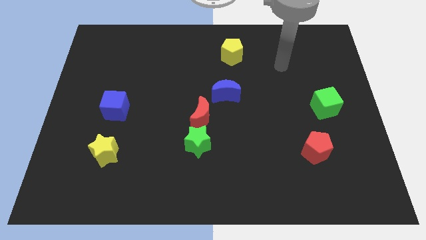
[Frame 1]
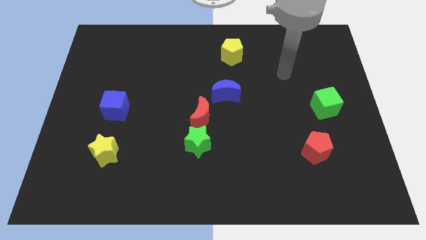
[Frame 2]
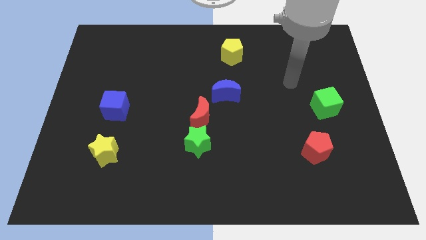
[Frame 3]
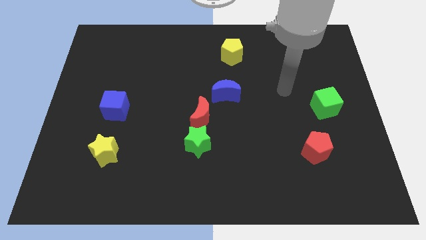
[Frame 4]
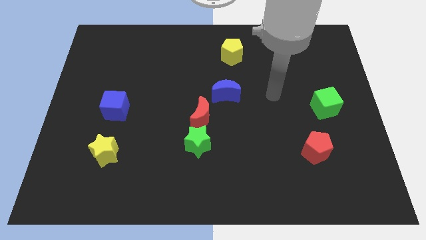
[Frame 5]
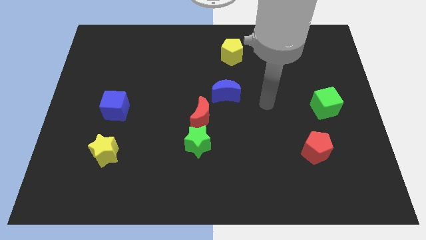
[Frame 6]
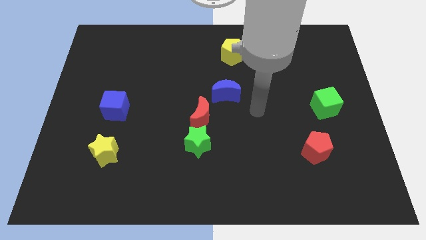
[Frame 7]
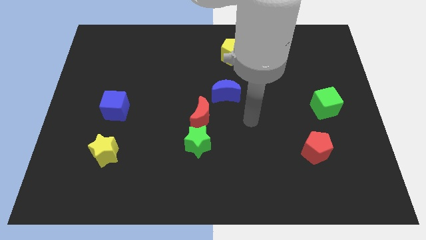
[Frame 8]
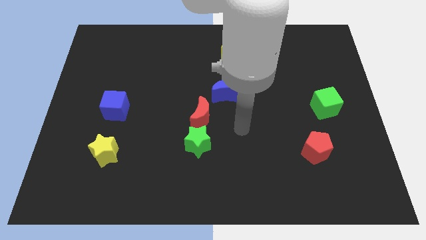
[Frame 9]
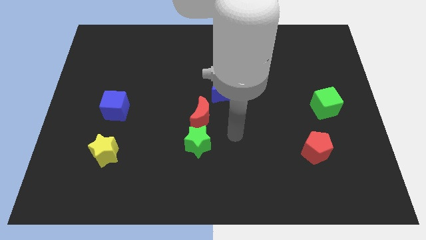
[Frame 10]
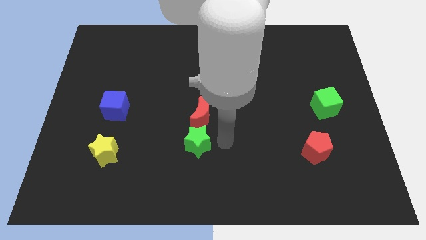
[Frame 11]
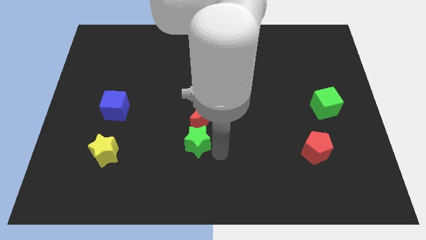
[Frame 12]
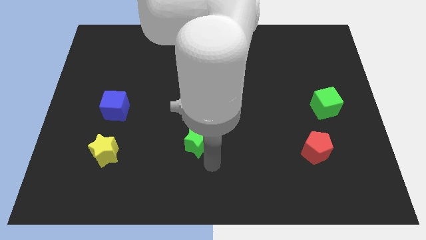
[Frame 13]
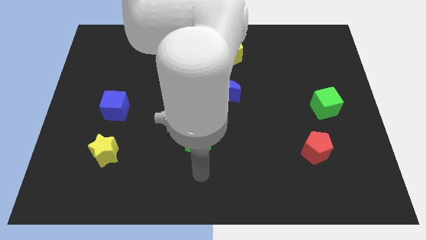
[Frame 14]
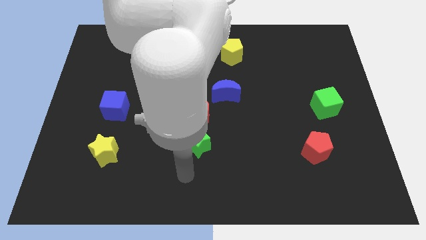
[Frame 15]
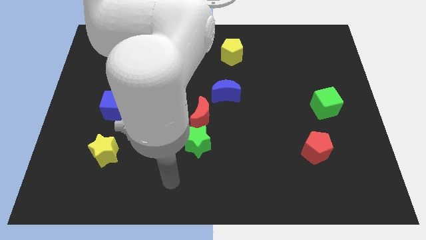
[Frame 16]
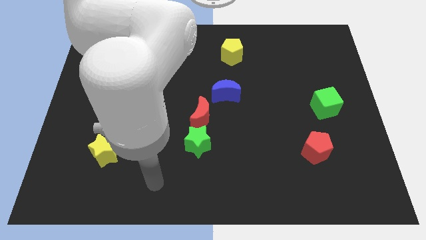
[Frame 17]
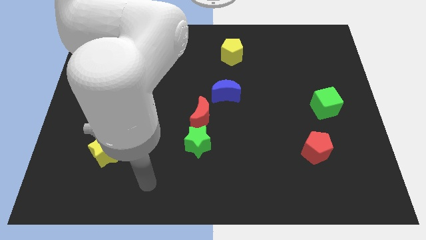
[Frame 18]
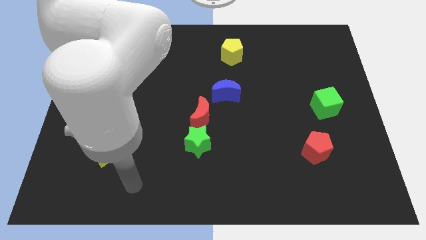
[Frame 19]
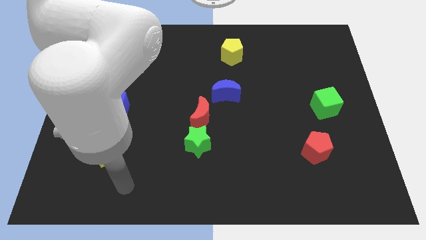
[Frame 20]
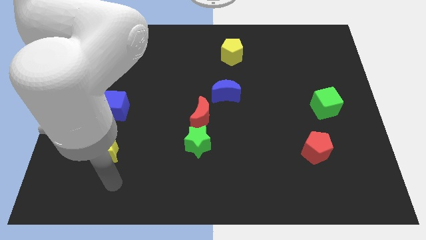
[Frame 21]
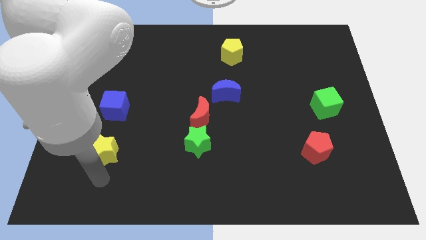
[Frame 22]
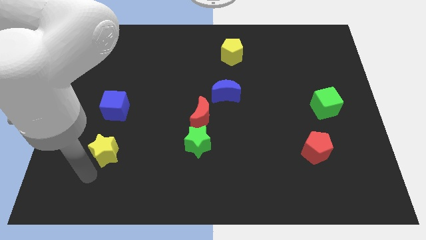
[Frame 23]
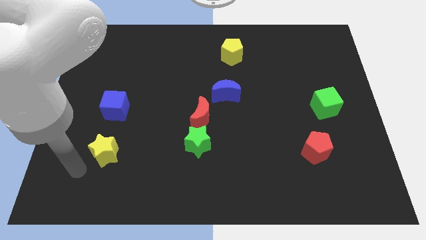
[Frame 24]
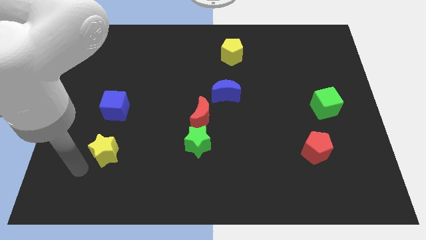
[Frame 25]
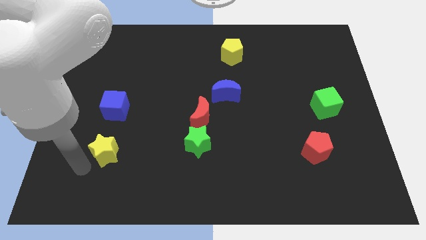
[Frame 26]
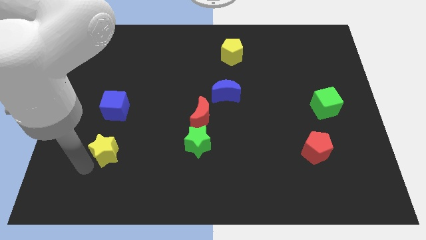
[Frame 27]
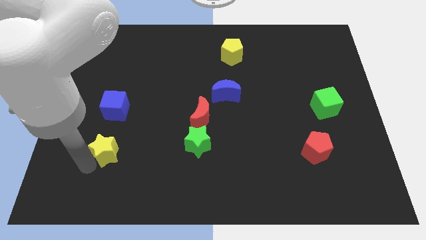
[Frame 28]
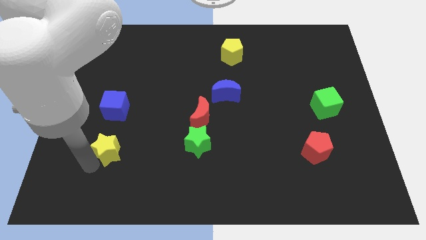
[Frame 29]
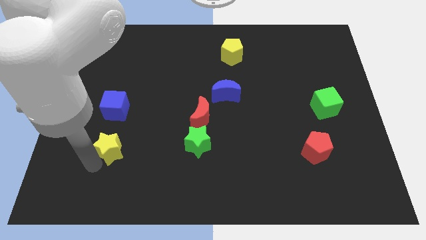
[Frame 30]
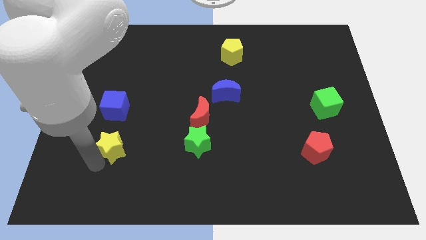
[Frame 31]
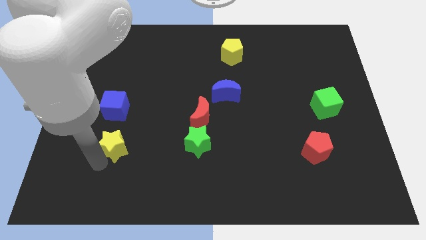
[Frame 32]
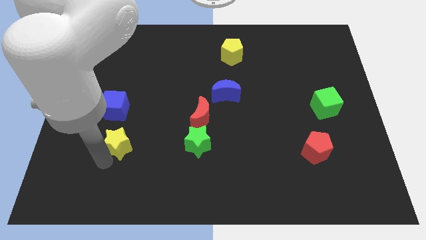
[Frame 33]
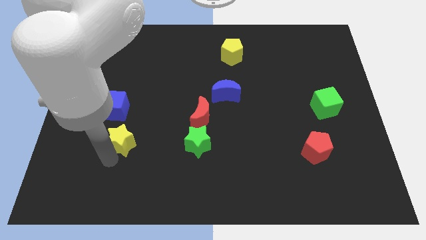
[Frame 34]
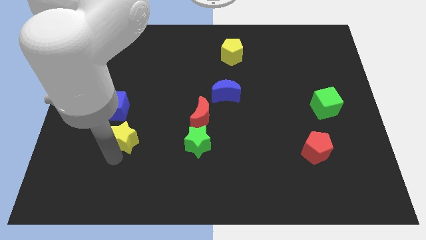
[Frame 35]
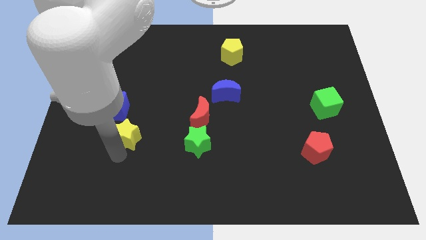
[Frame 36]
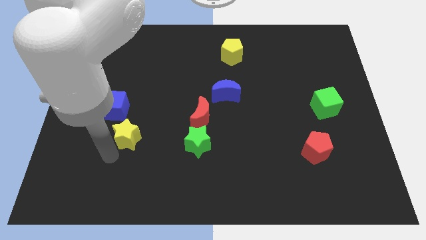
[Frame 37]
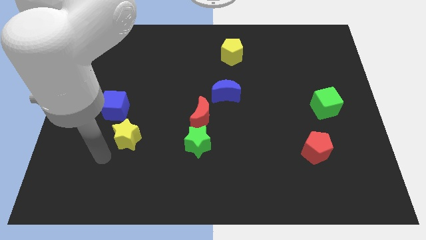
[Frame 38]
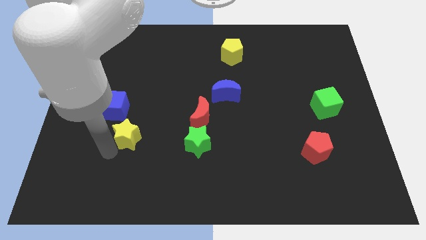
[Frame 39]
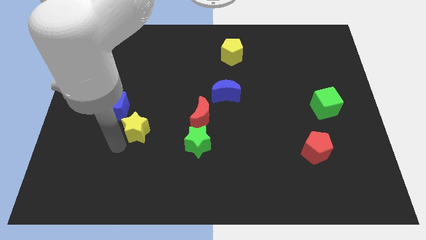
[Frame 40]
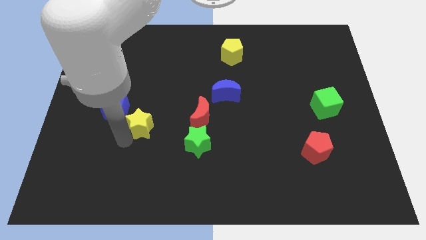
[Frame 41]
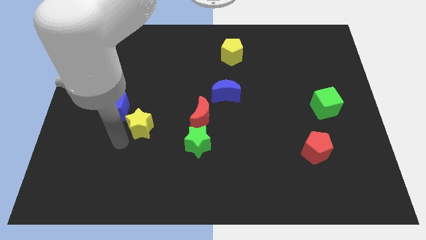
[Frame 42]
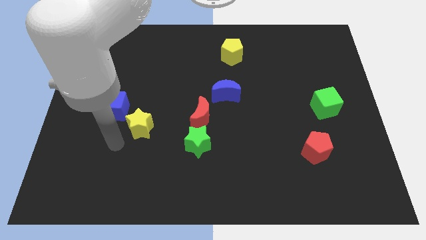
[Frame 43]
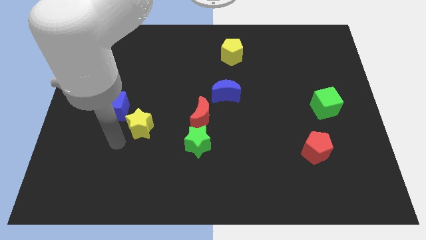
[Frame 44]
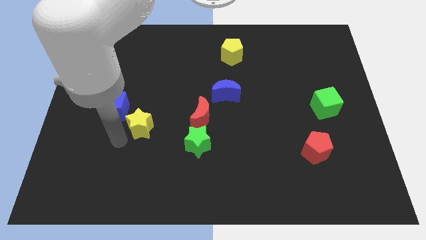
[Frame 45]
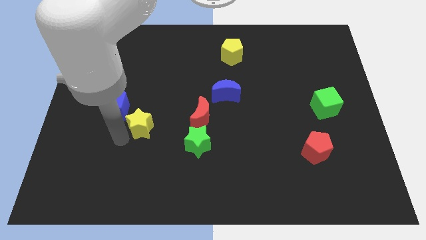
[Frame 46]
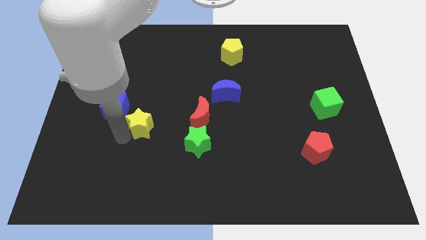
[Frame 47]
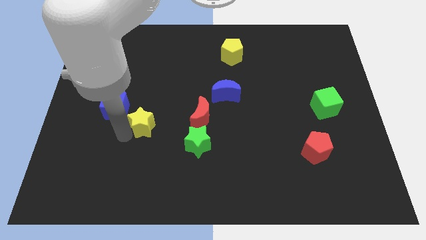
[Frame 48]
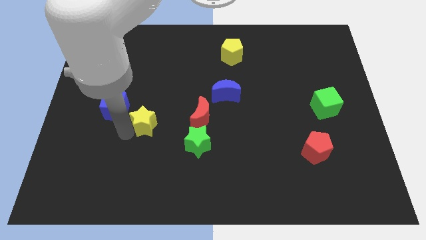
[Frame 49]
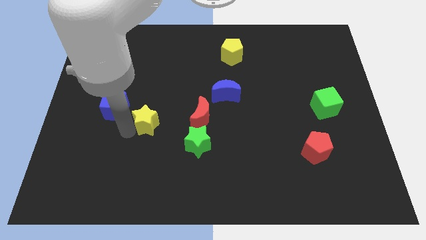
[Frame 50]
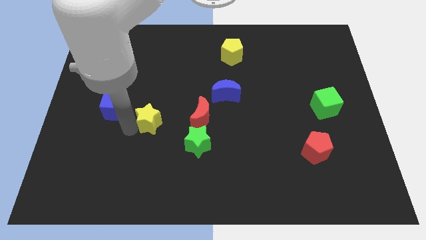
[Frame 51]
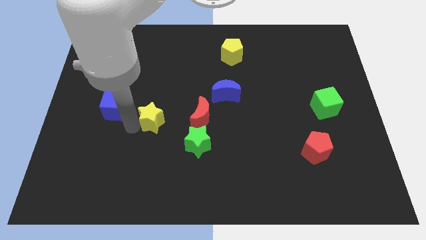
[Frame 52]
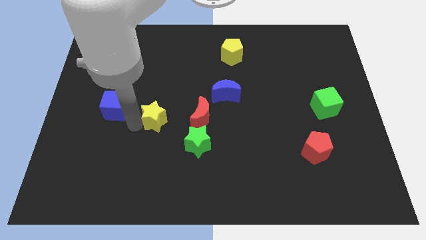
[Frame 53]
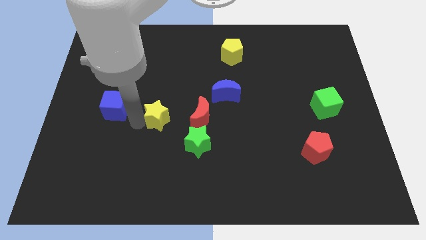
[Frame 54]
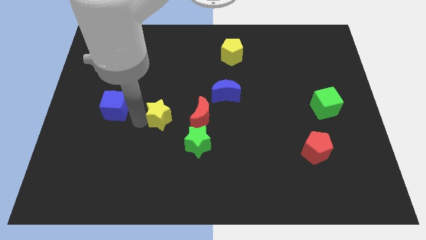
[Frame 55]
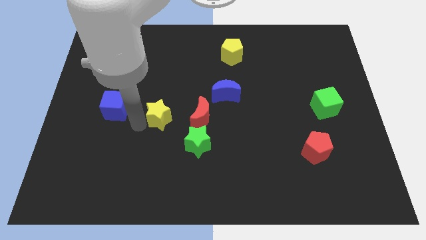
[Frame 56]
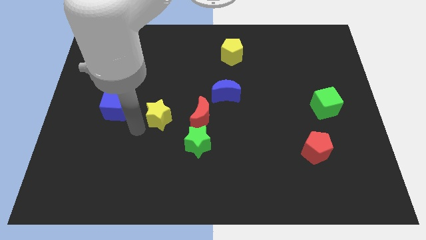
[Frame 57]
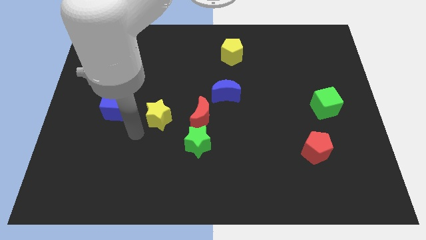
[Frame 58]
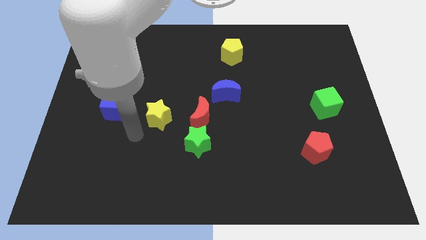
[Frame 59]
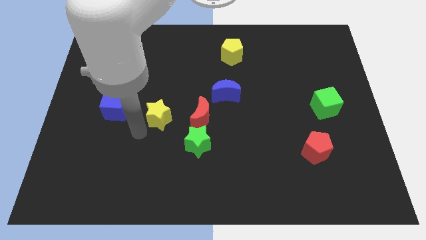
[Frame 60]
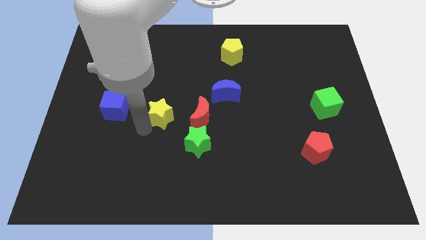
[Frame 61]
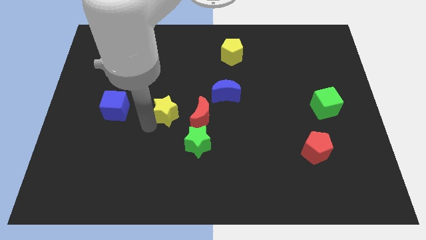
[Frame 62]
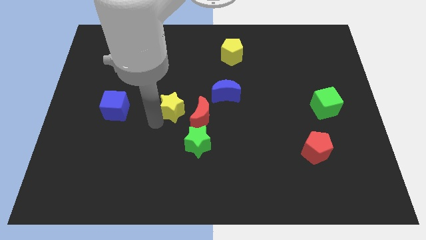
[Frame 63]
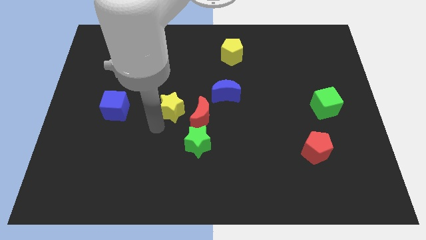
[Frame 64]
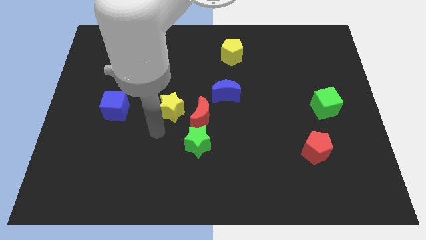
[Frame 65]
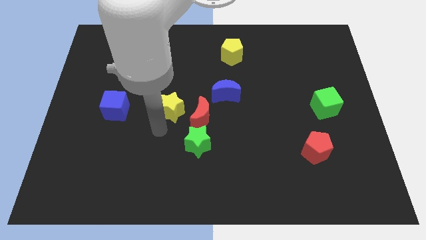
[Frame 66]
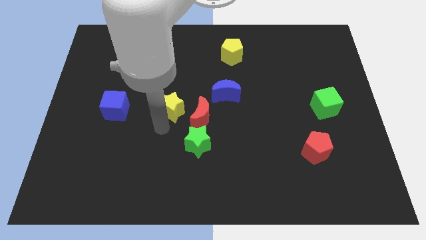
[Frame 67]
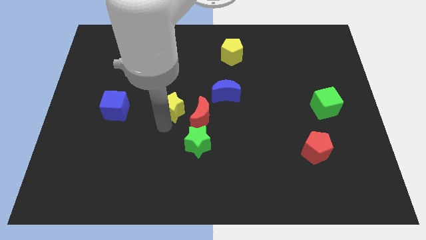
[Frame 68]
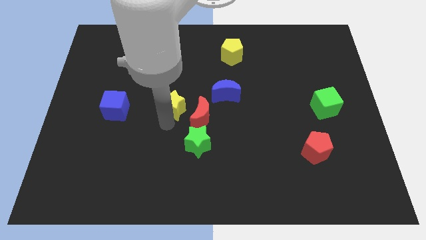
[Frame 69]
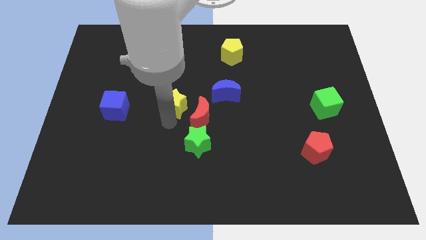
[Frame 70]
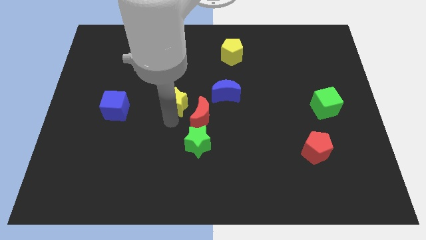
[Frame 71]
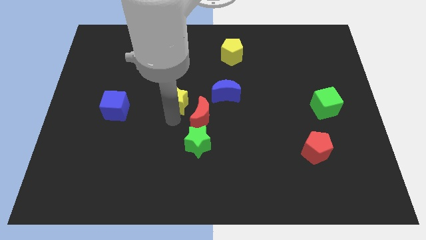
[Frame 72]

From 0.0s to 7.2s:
slide the yellow star upwards and to the right diagonally
